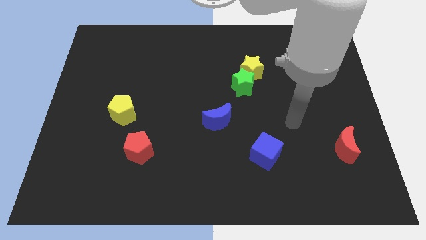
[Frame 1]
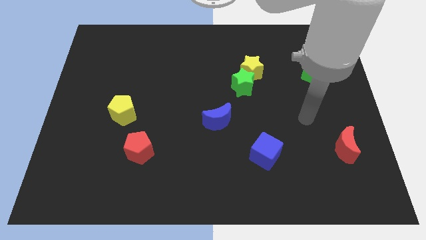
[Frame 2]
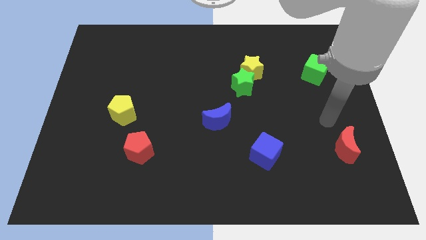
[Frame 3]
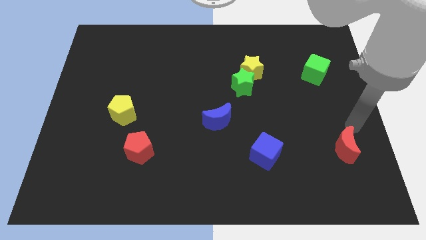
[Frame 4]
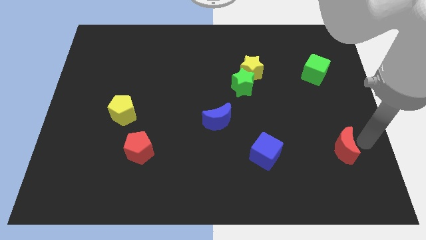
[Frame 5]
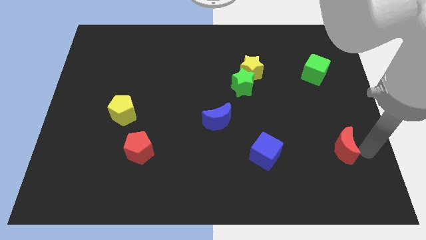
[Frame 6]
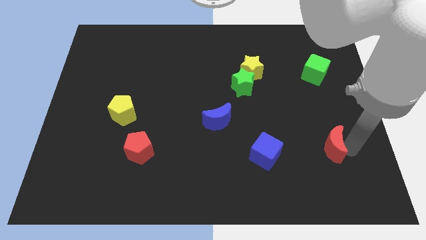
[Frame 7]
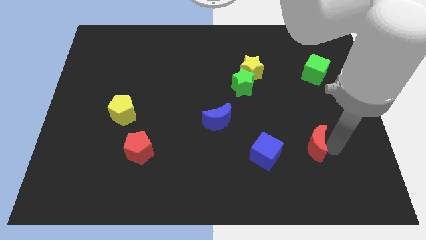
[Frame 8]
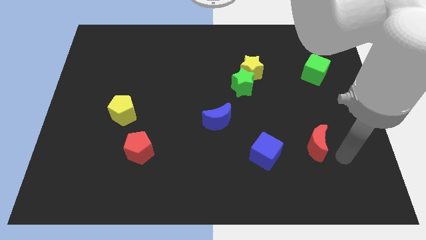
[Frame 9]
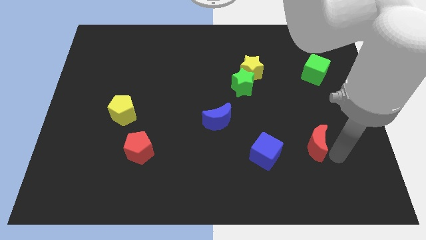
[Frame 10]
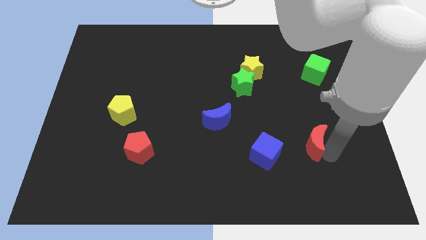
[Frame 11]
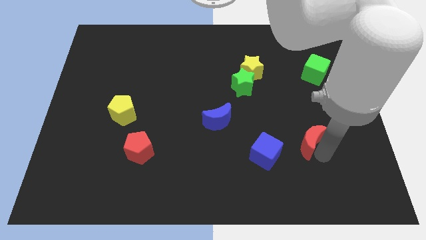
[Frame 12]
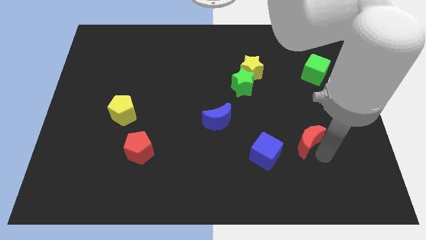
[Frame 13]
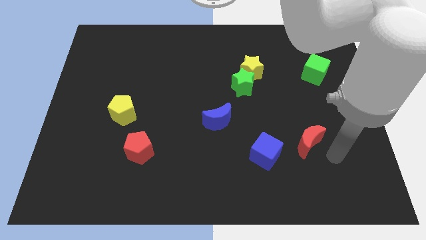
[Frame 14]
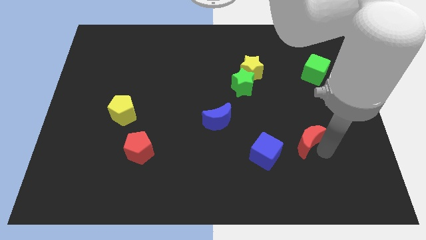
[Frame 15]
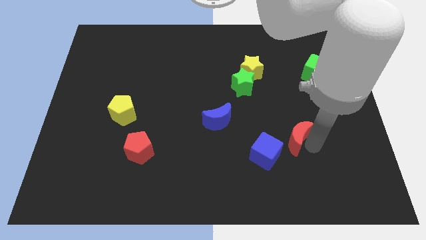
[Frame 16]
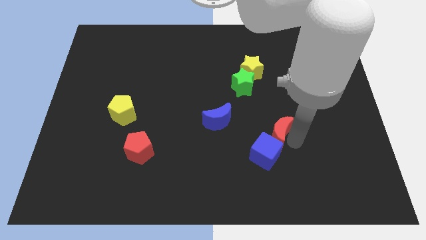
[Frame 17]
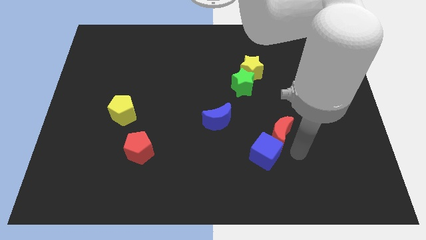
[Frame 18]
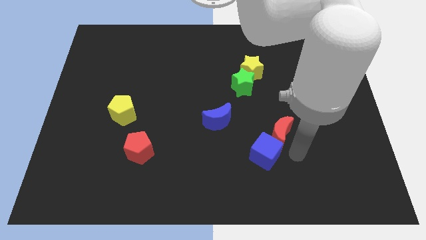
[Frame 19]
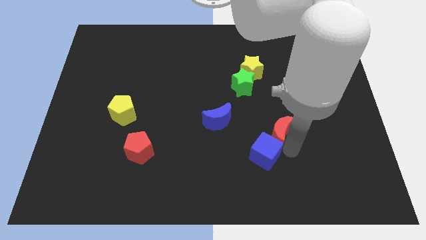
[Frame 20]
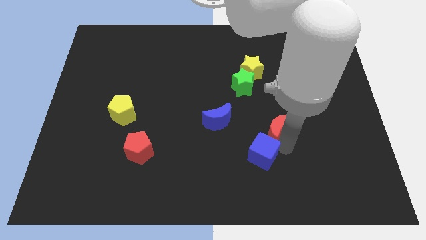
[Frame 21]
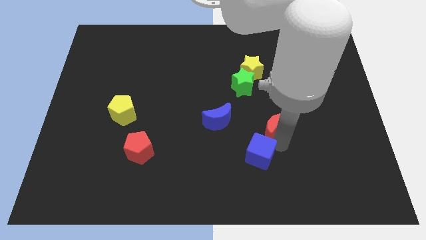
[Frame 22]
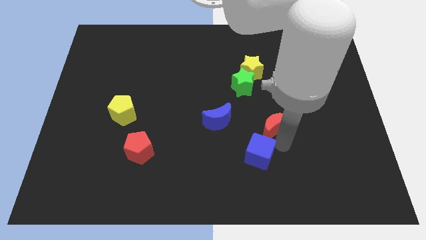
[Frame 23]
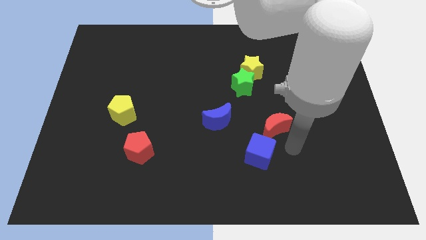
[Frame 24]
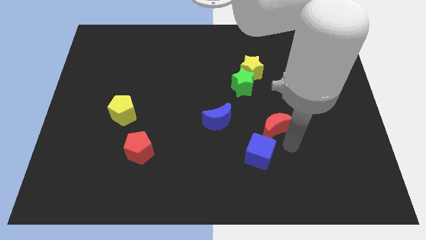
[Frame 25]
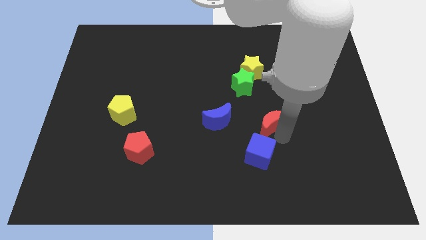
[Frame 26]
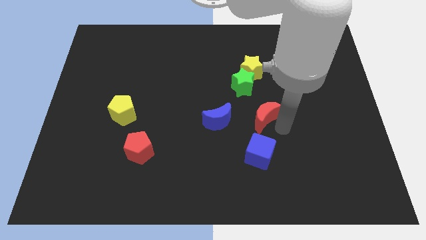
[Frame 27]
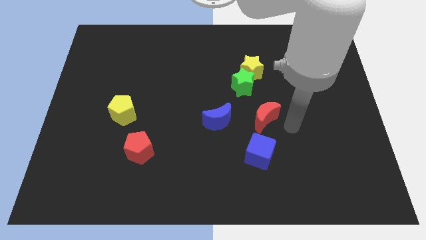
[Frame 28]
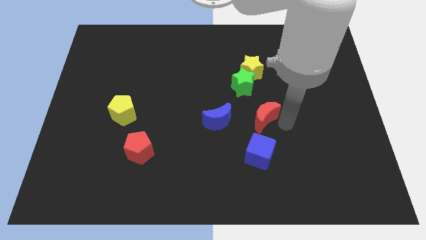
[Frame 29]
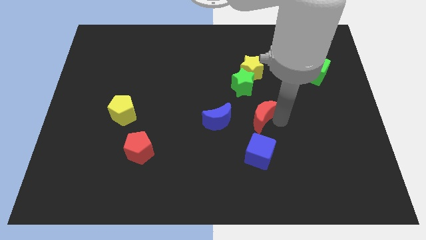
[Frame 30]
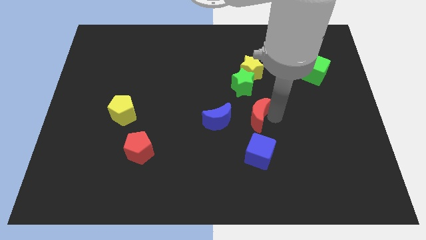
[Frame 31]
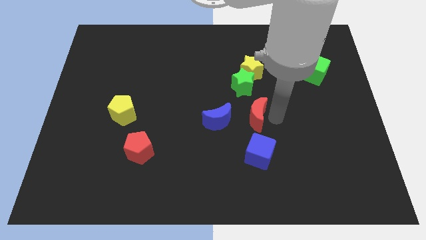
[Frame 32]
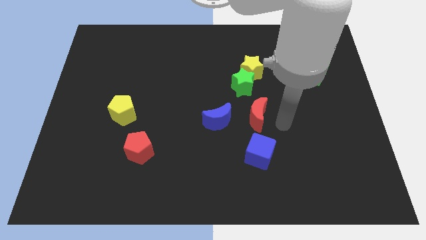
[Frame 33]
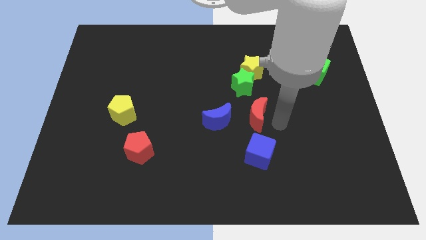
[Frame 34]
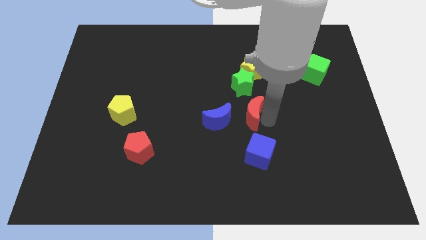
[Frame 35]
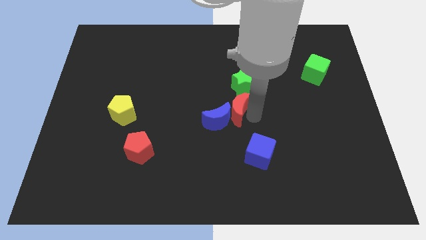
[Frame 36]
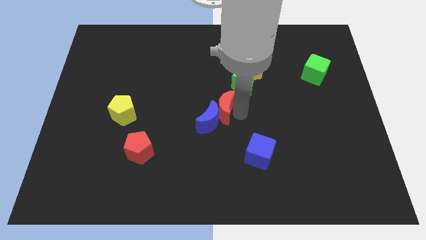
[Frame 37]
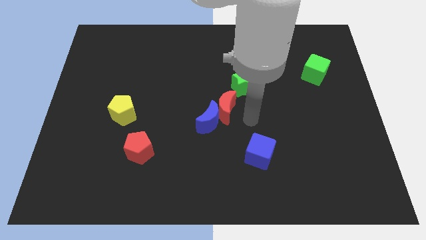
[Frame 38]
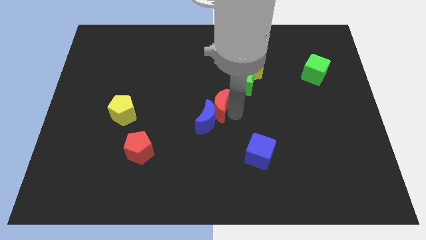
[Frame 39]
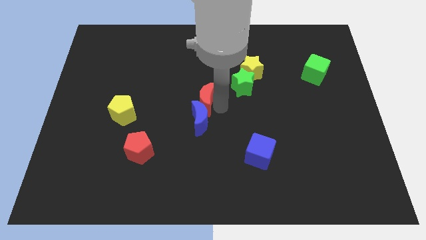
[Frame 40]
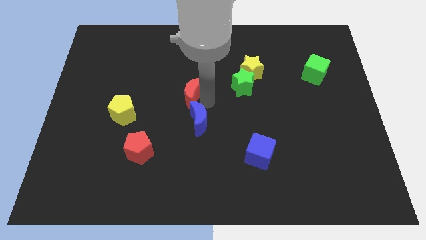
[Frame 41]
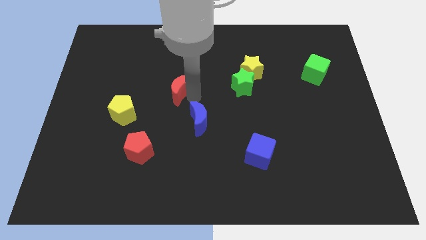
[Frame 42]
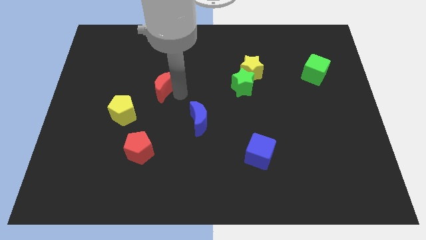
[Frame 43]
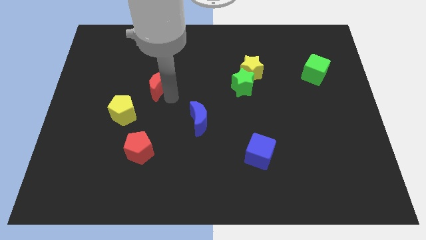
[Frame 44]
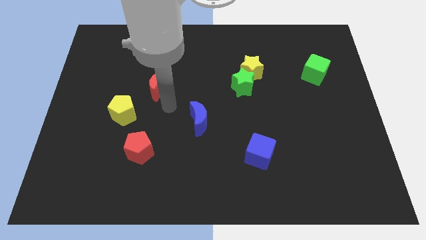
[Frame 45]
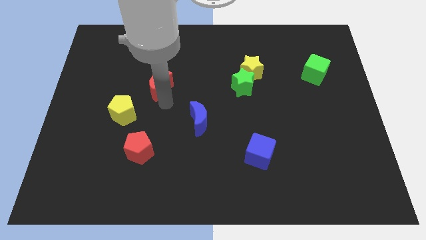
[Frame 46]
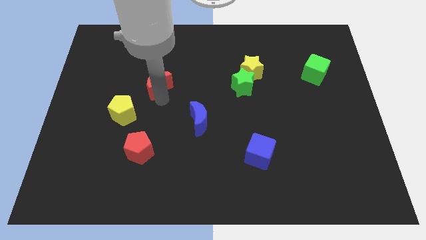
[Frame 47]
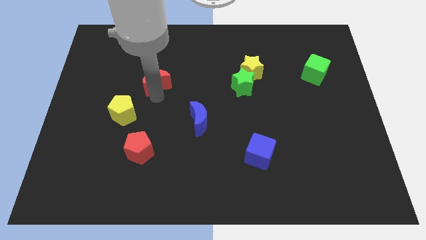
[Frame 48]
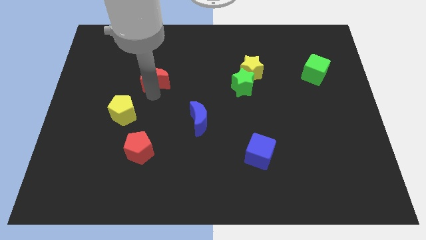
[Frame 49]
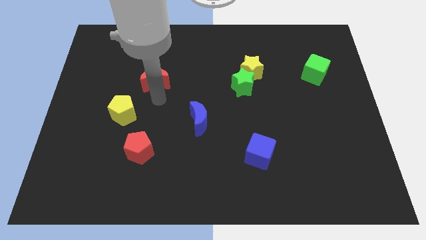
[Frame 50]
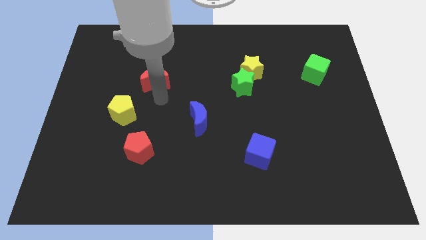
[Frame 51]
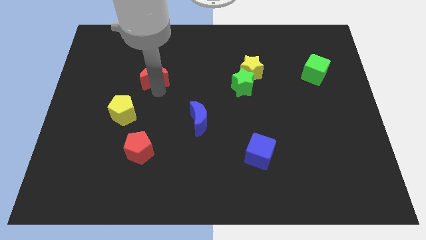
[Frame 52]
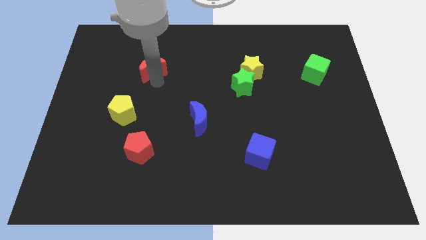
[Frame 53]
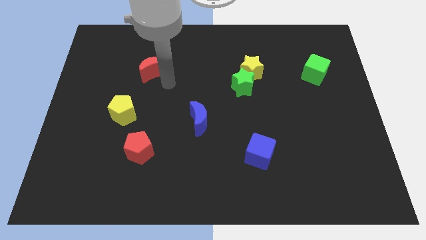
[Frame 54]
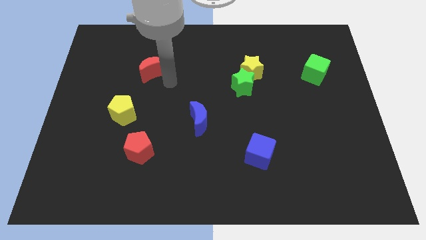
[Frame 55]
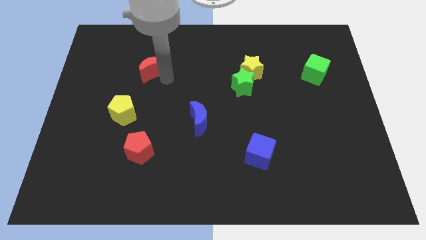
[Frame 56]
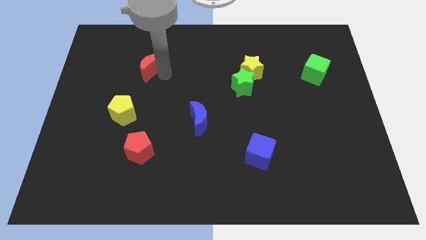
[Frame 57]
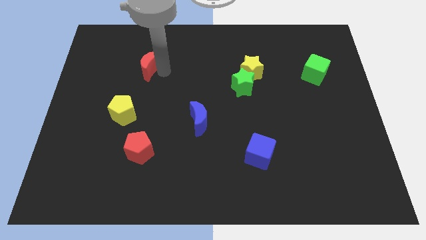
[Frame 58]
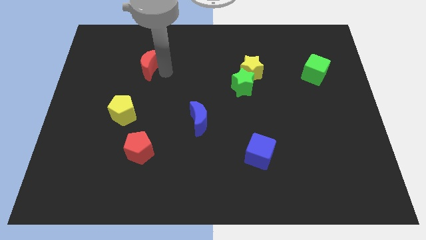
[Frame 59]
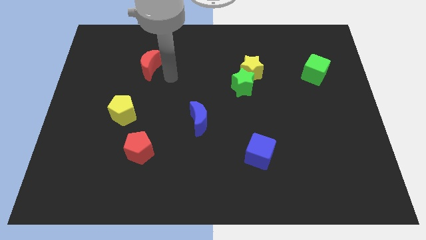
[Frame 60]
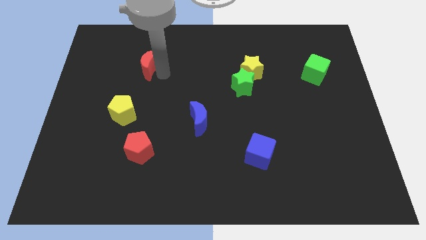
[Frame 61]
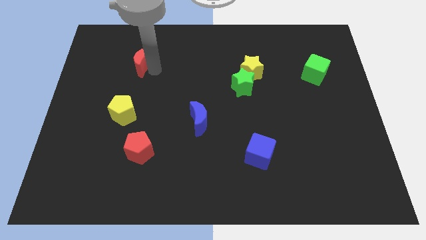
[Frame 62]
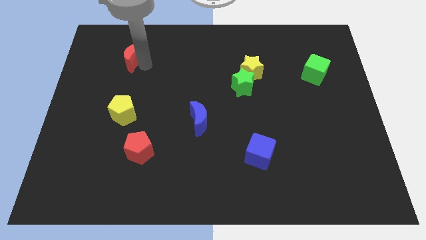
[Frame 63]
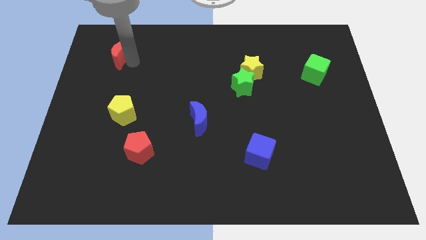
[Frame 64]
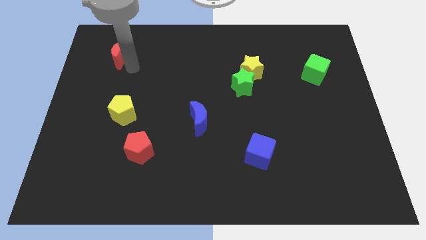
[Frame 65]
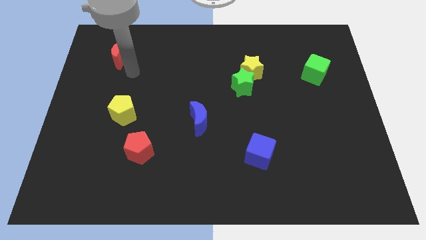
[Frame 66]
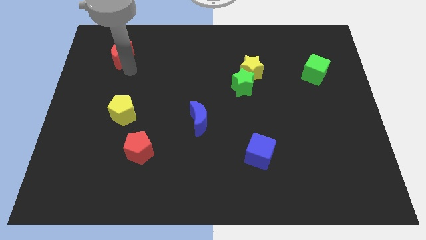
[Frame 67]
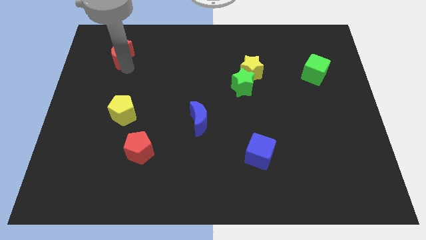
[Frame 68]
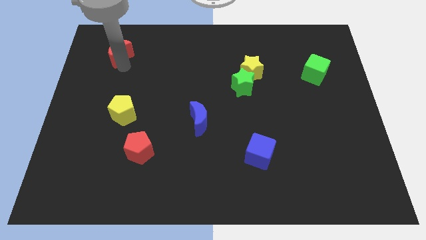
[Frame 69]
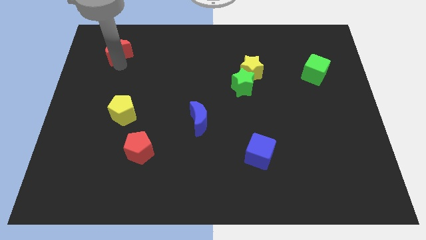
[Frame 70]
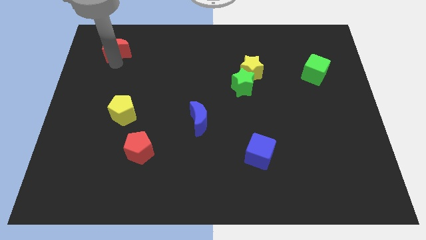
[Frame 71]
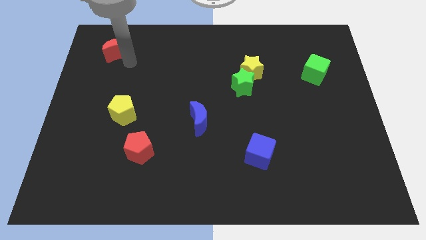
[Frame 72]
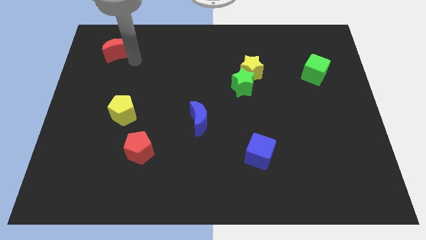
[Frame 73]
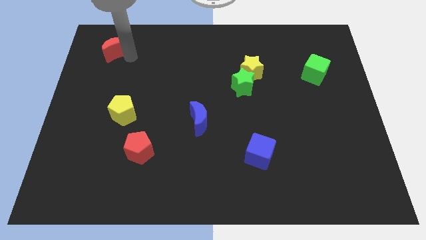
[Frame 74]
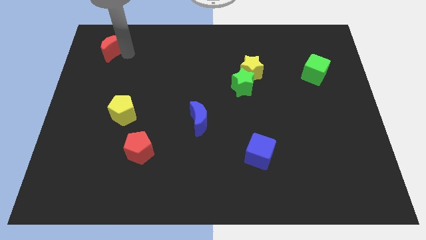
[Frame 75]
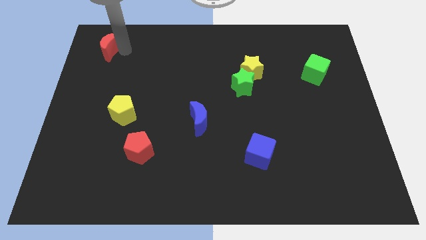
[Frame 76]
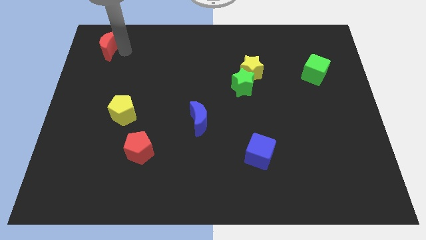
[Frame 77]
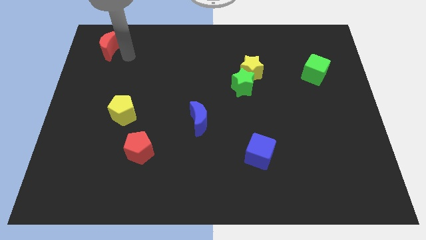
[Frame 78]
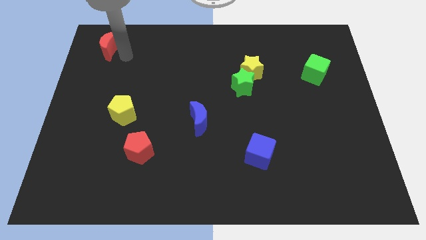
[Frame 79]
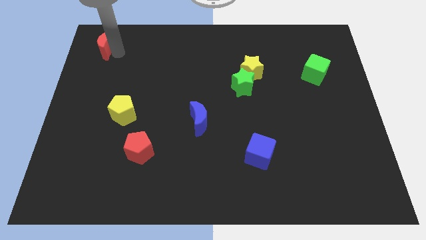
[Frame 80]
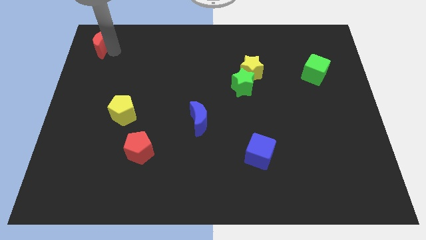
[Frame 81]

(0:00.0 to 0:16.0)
slide the red moon to the top left
